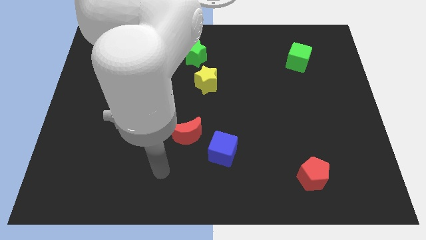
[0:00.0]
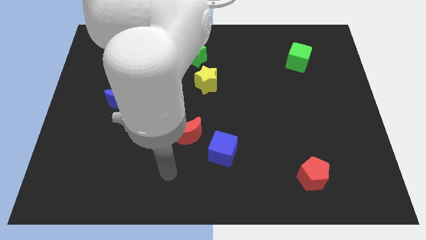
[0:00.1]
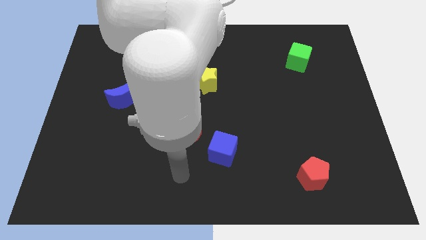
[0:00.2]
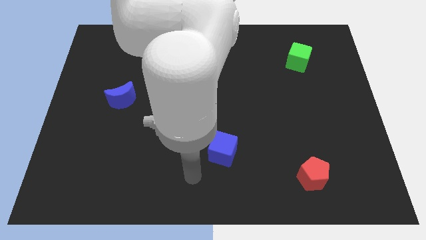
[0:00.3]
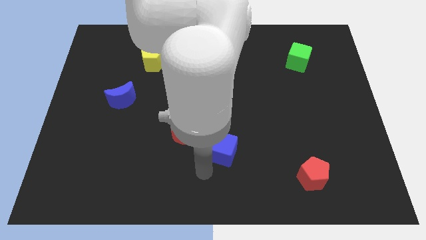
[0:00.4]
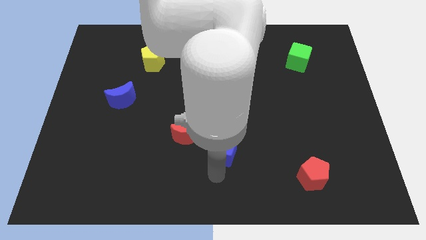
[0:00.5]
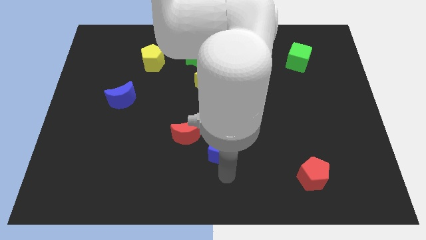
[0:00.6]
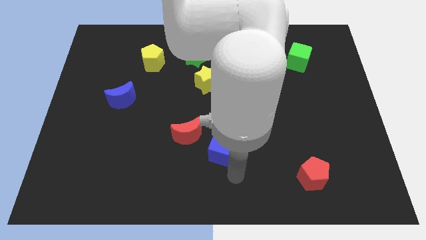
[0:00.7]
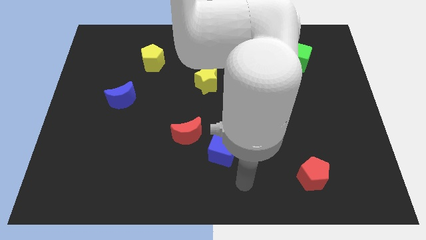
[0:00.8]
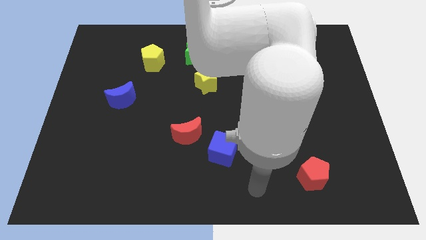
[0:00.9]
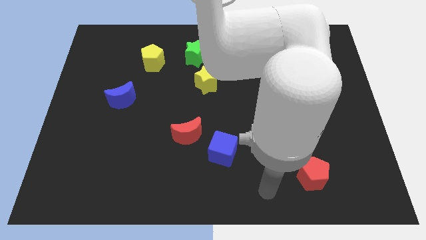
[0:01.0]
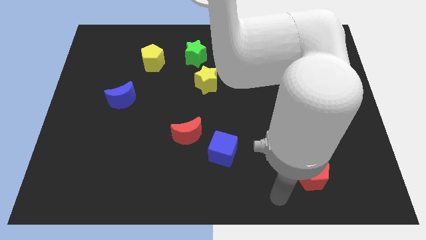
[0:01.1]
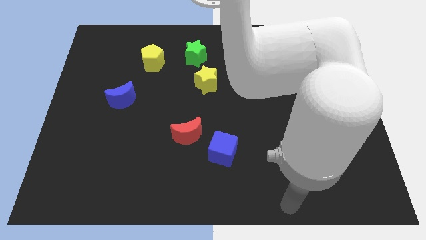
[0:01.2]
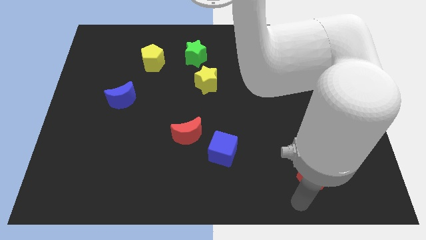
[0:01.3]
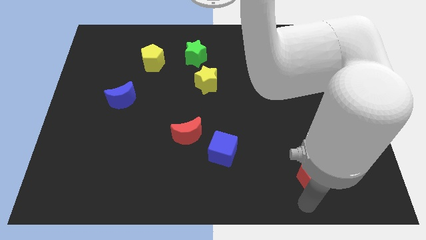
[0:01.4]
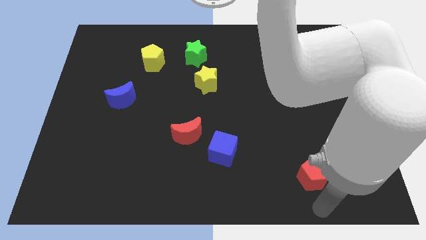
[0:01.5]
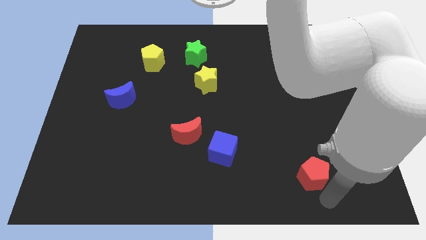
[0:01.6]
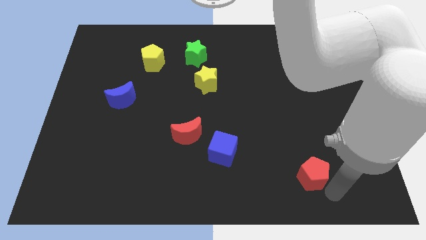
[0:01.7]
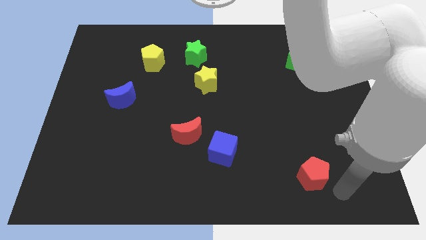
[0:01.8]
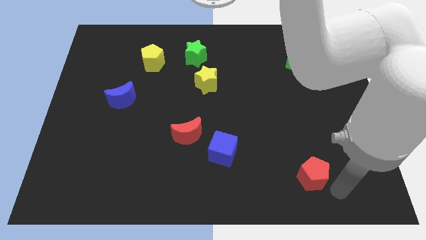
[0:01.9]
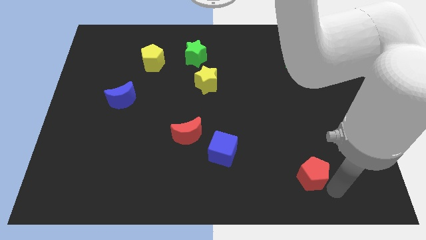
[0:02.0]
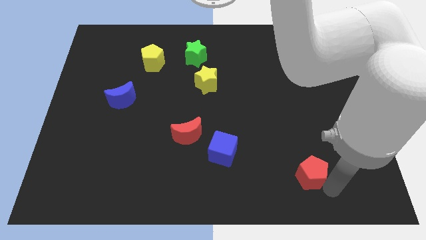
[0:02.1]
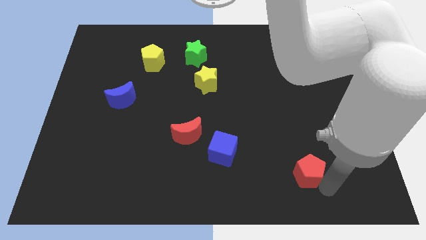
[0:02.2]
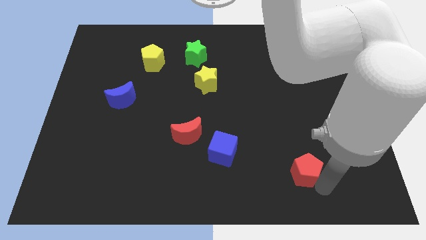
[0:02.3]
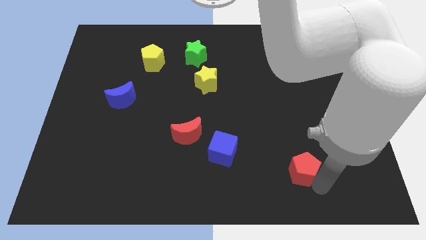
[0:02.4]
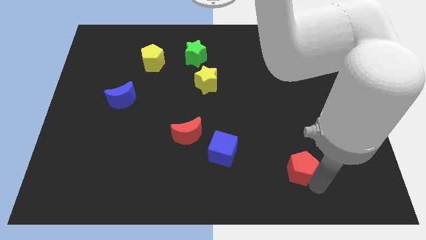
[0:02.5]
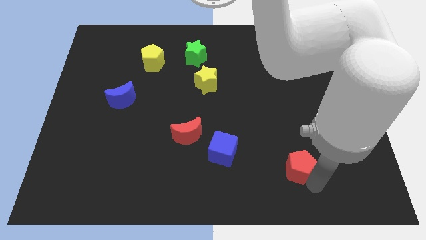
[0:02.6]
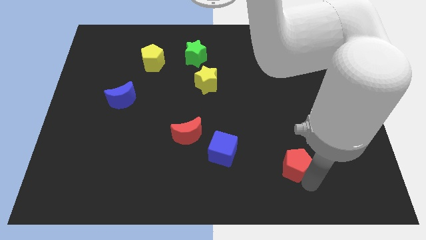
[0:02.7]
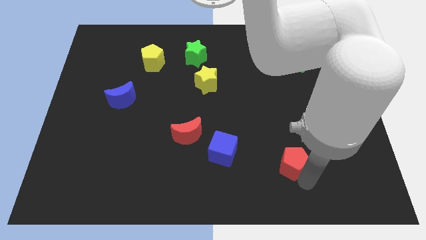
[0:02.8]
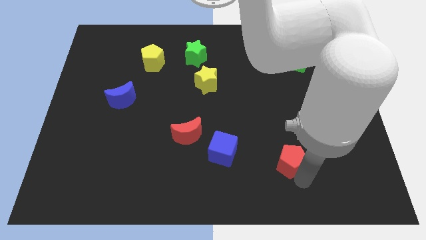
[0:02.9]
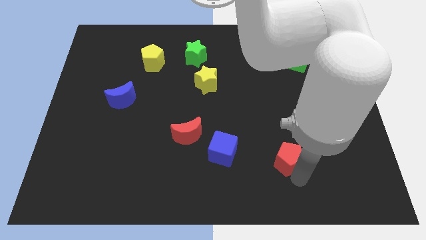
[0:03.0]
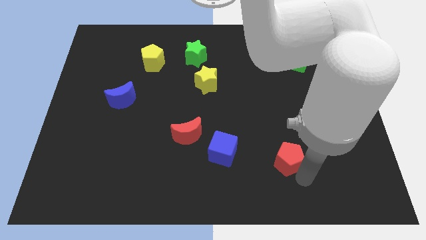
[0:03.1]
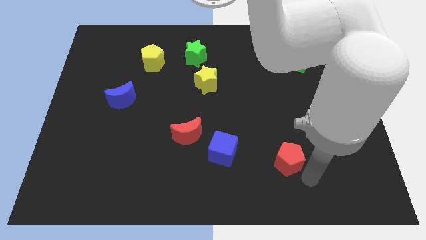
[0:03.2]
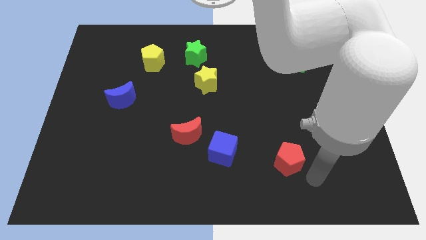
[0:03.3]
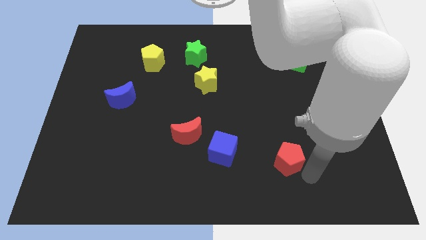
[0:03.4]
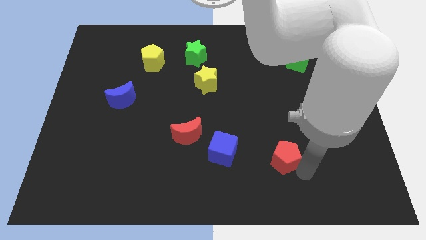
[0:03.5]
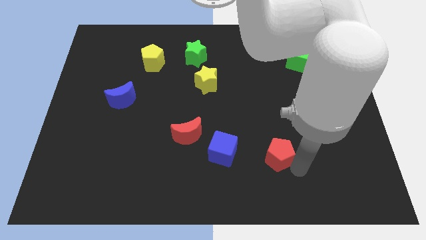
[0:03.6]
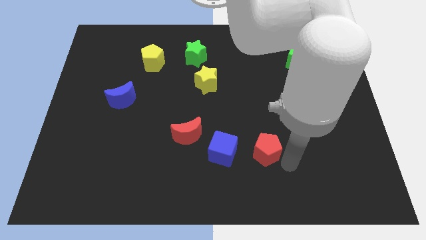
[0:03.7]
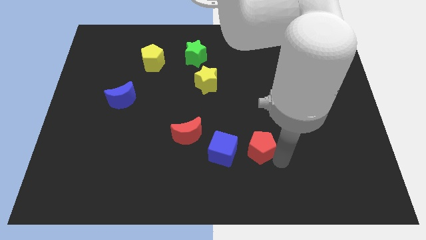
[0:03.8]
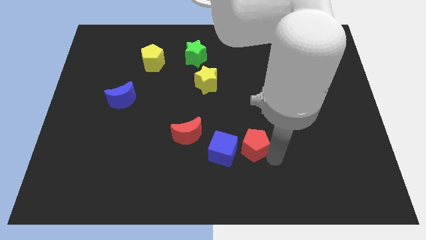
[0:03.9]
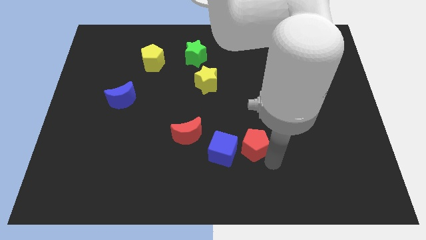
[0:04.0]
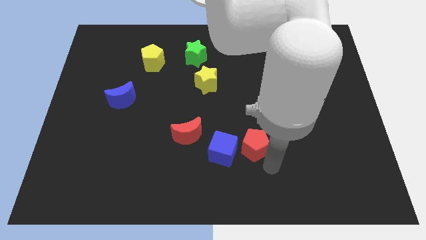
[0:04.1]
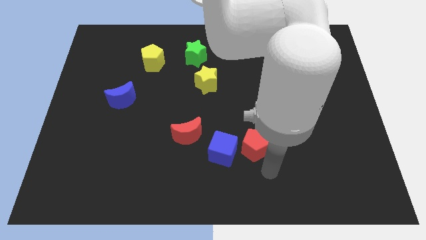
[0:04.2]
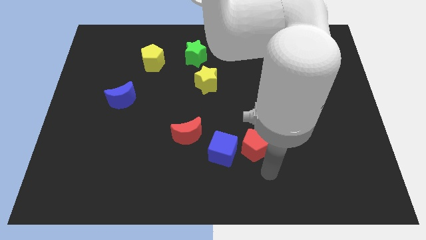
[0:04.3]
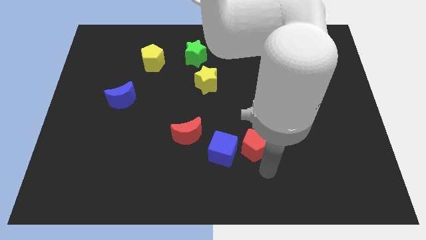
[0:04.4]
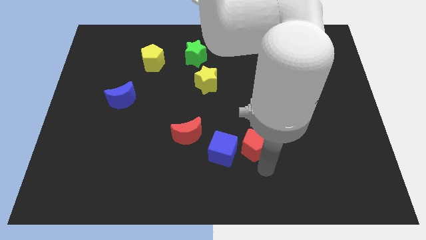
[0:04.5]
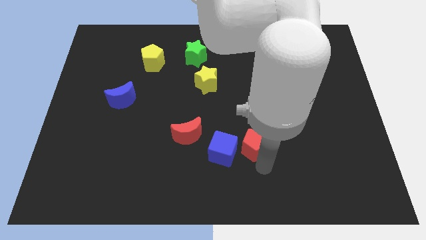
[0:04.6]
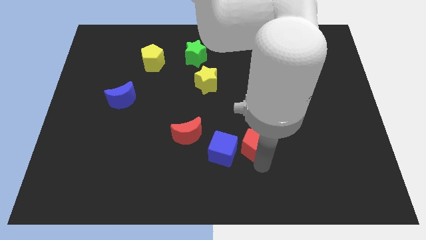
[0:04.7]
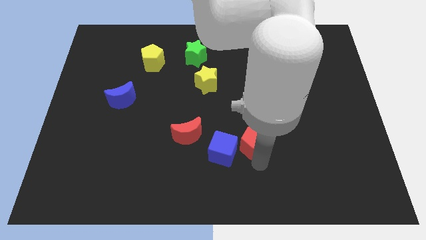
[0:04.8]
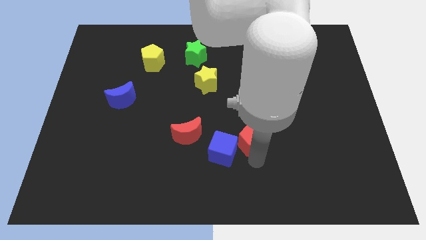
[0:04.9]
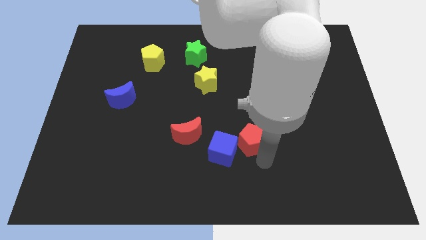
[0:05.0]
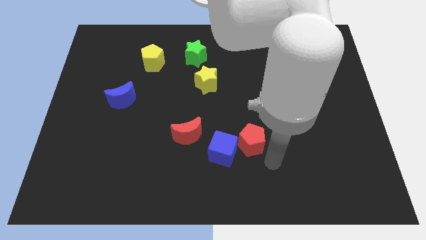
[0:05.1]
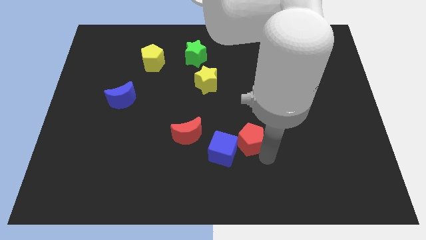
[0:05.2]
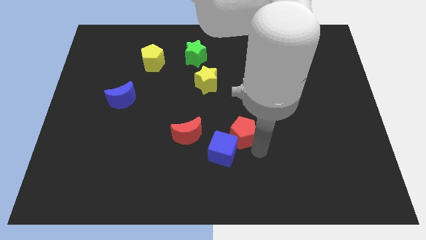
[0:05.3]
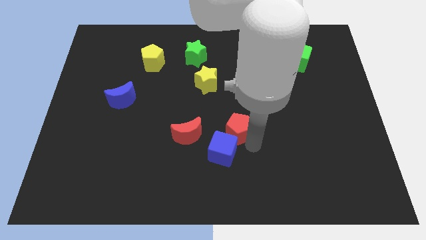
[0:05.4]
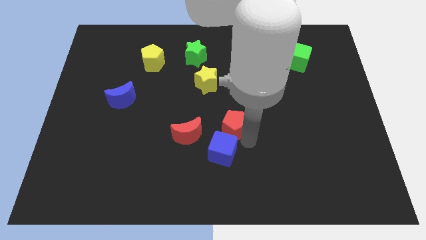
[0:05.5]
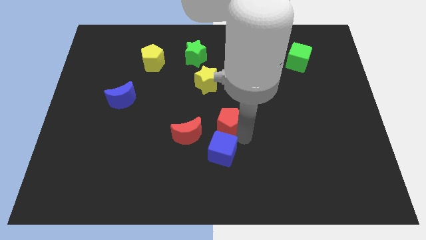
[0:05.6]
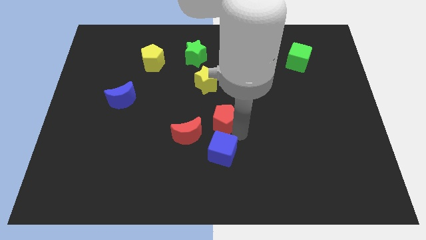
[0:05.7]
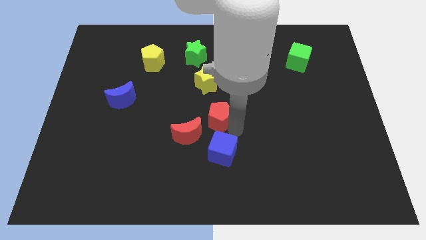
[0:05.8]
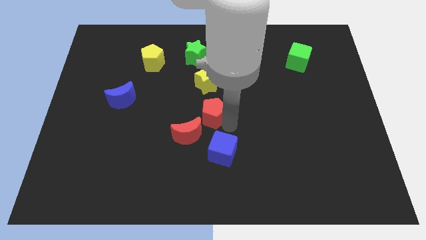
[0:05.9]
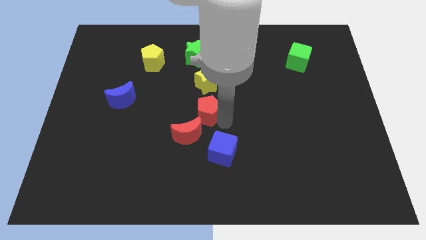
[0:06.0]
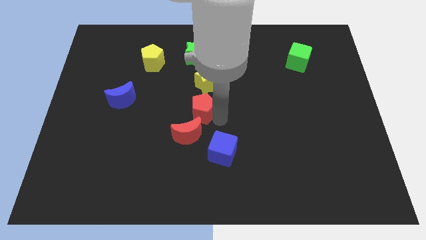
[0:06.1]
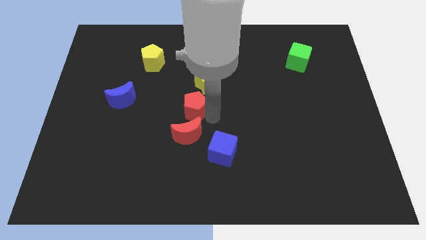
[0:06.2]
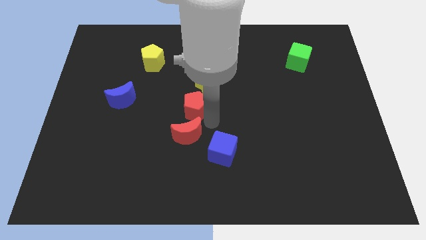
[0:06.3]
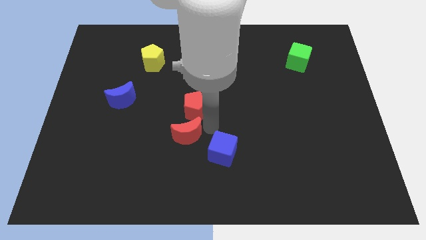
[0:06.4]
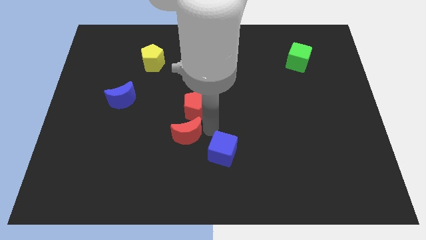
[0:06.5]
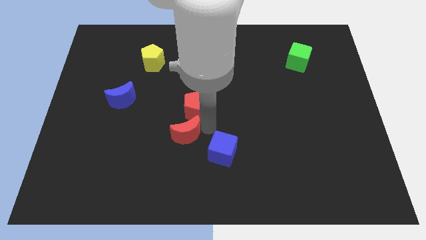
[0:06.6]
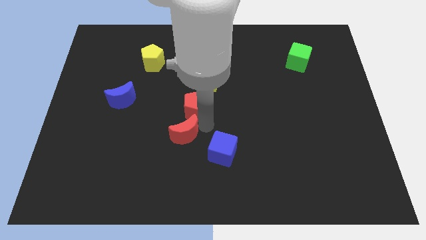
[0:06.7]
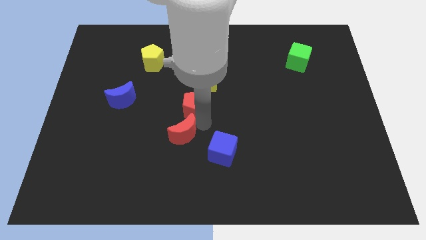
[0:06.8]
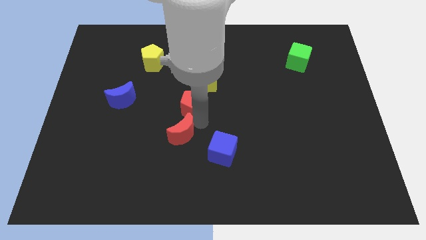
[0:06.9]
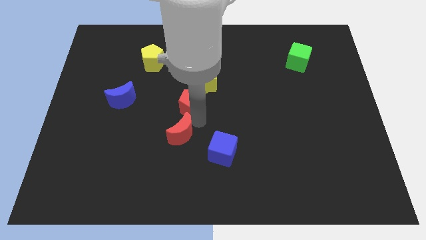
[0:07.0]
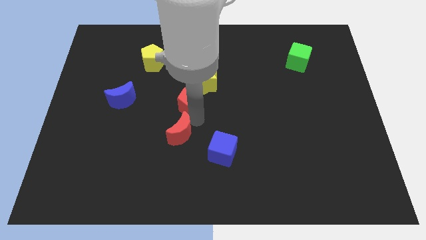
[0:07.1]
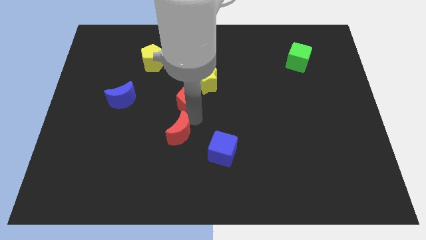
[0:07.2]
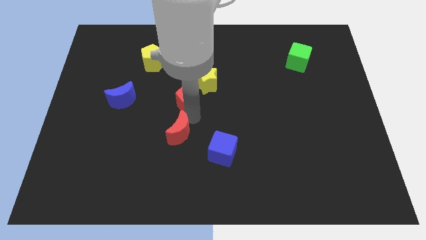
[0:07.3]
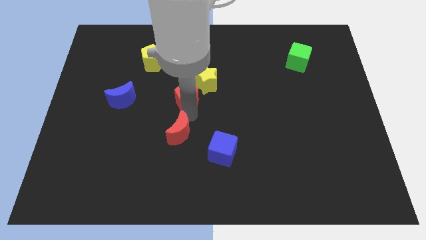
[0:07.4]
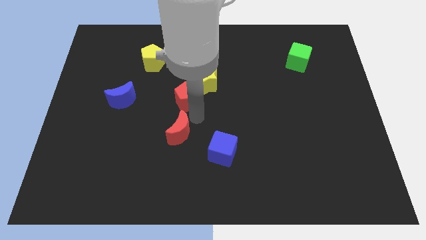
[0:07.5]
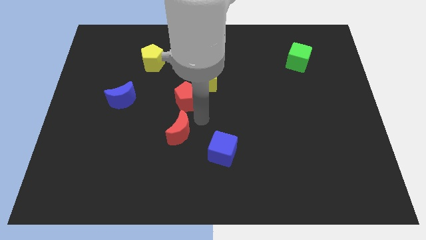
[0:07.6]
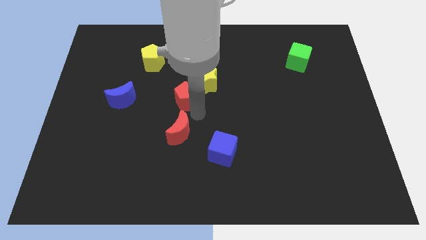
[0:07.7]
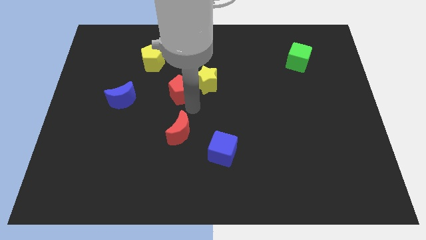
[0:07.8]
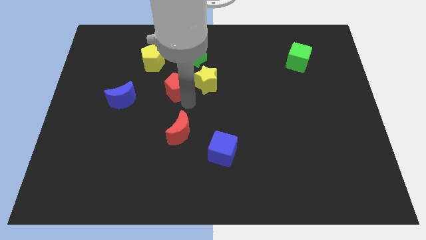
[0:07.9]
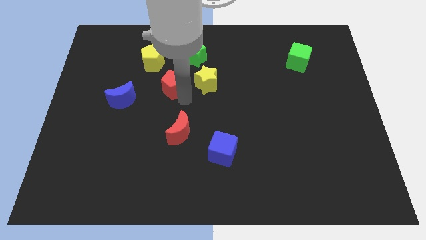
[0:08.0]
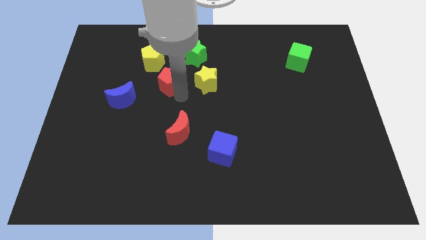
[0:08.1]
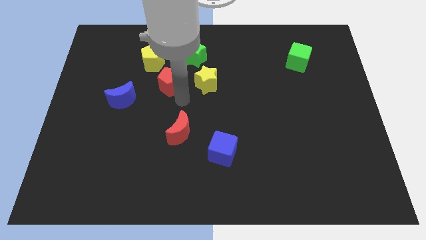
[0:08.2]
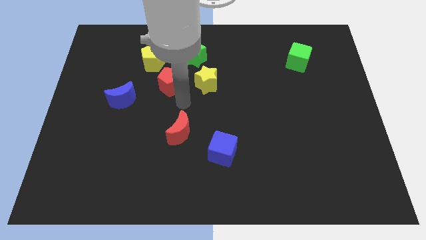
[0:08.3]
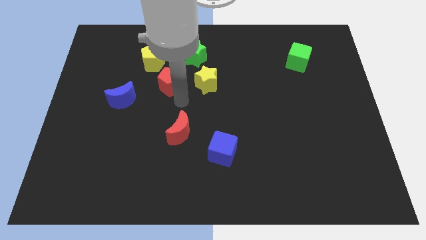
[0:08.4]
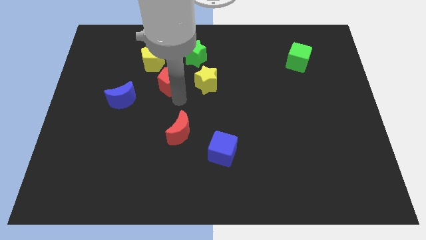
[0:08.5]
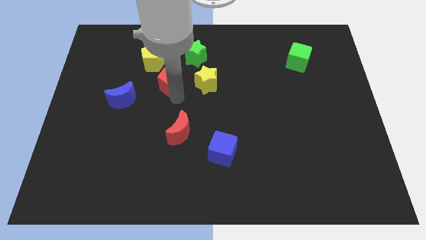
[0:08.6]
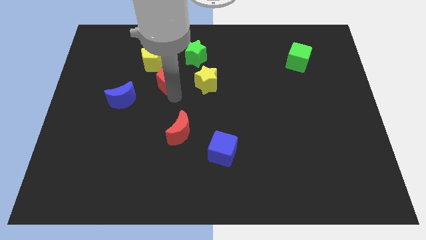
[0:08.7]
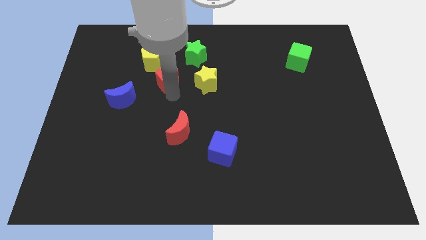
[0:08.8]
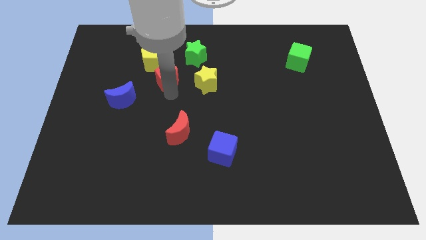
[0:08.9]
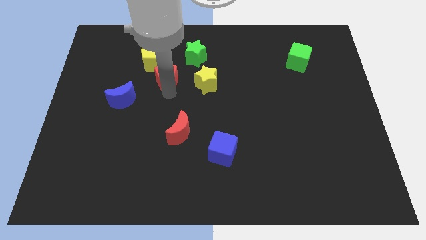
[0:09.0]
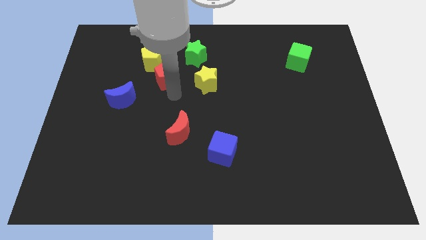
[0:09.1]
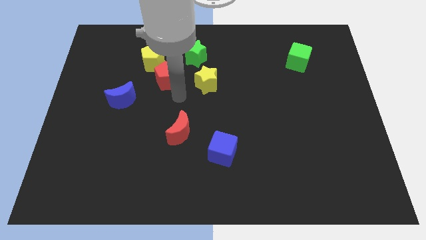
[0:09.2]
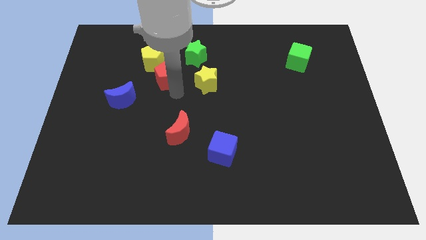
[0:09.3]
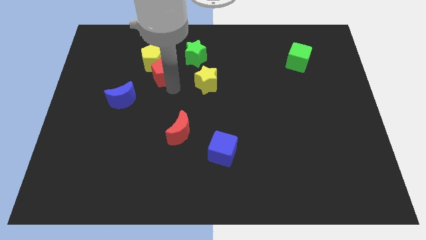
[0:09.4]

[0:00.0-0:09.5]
put the red pentagon next to the yellow pentagon
